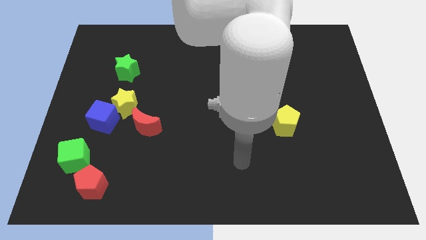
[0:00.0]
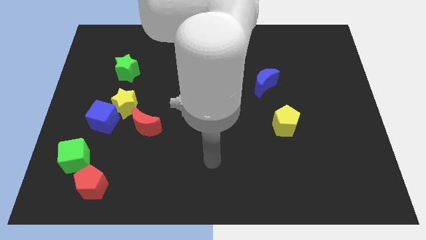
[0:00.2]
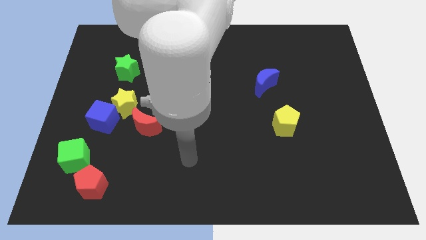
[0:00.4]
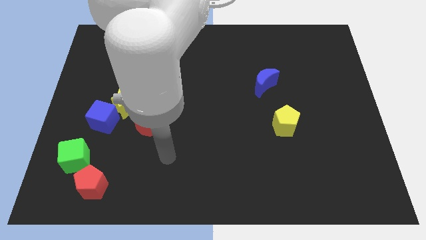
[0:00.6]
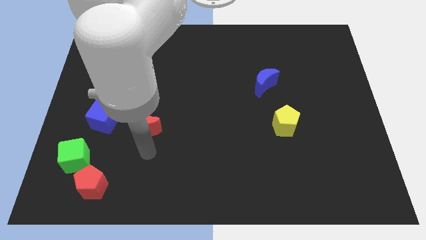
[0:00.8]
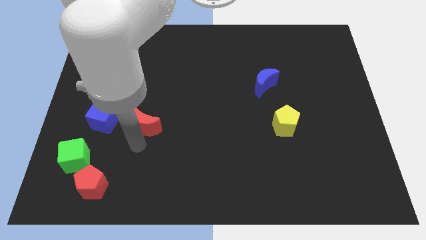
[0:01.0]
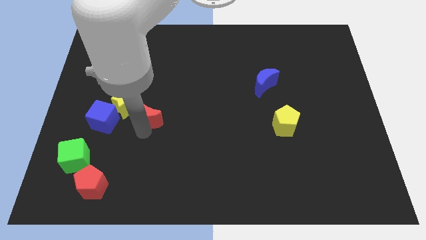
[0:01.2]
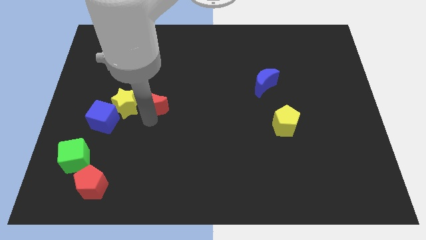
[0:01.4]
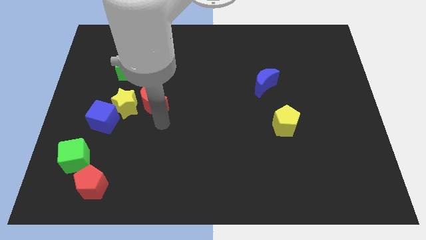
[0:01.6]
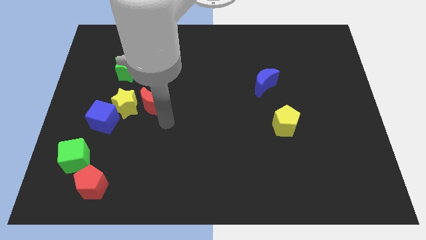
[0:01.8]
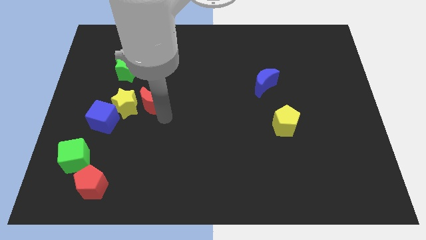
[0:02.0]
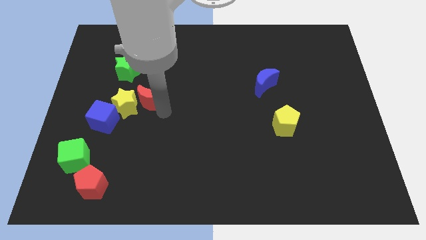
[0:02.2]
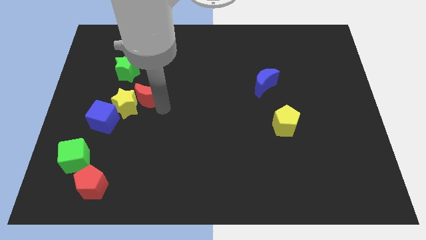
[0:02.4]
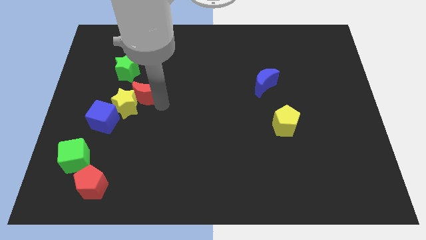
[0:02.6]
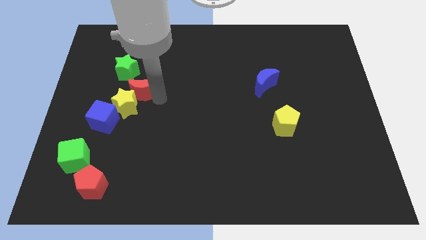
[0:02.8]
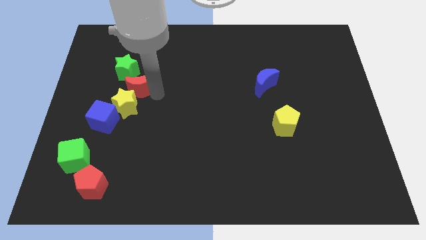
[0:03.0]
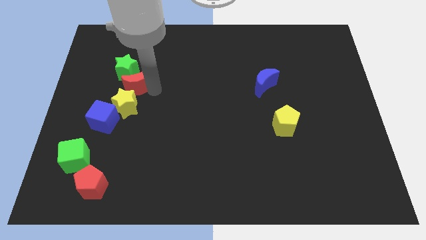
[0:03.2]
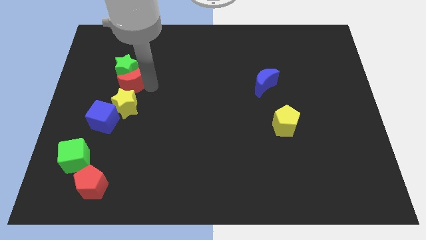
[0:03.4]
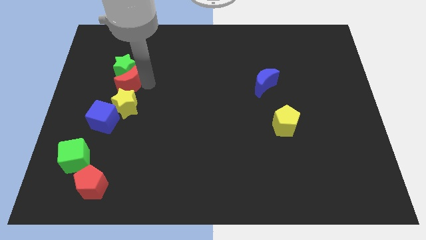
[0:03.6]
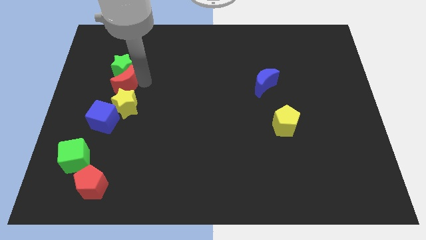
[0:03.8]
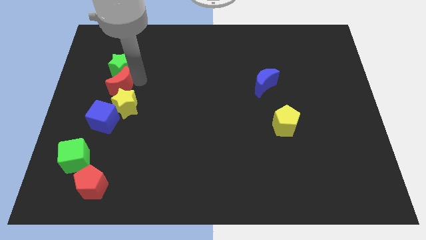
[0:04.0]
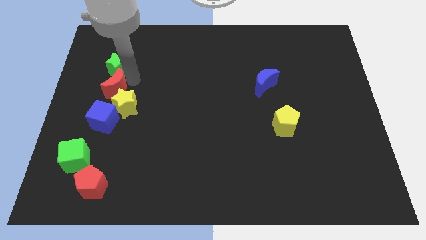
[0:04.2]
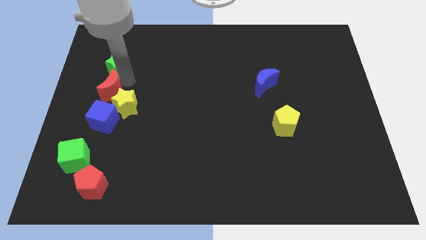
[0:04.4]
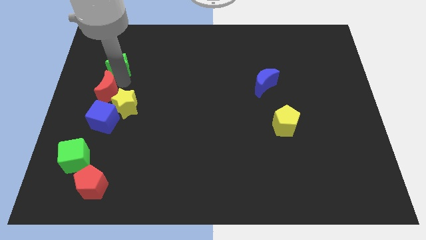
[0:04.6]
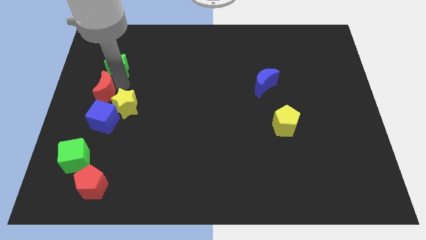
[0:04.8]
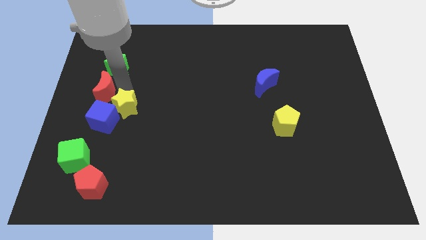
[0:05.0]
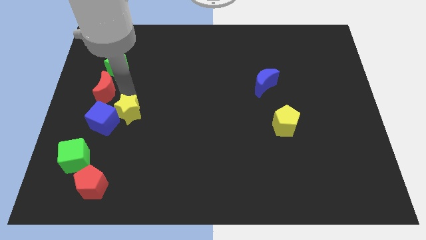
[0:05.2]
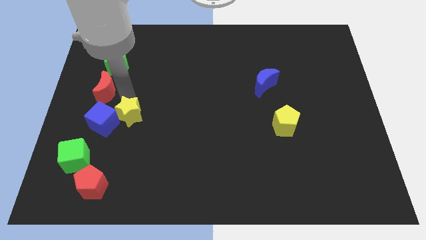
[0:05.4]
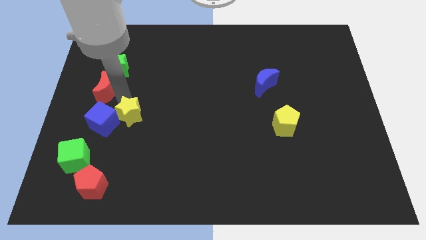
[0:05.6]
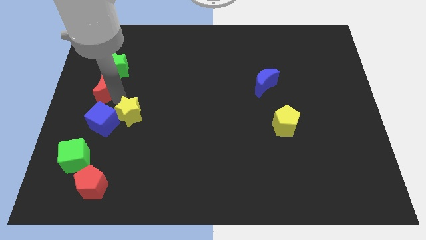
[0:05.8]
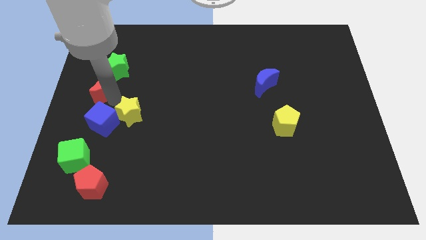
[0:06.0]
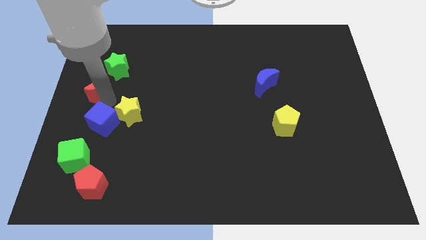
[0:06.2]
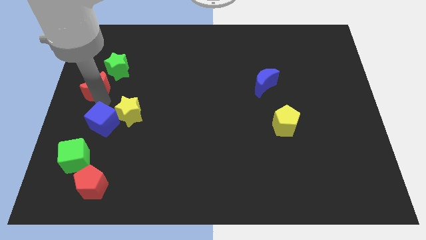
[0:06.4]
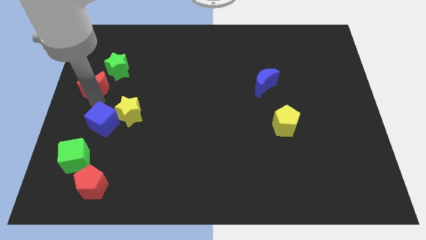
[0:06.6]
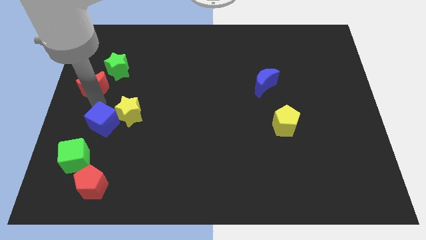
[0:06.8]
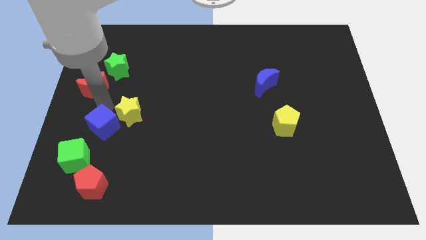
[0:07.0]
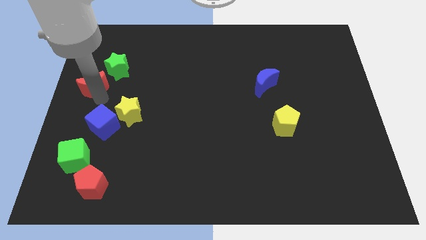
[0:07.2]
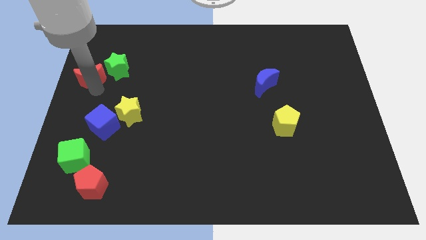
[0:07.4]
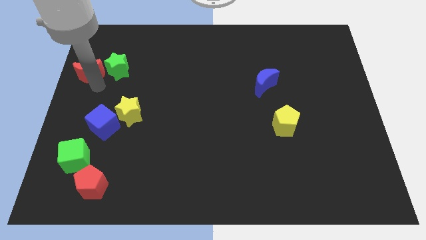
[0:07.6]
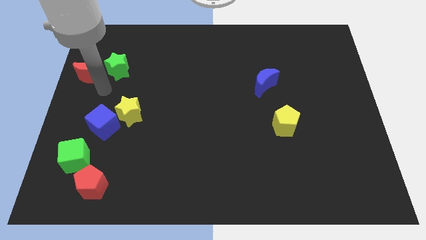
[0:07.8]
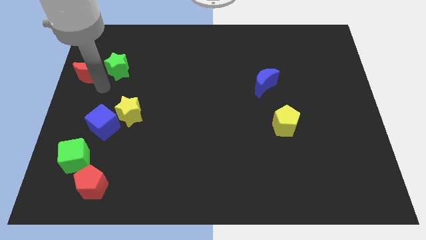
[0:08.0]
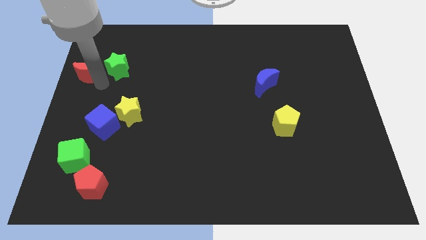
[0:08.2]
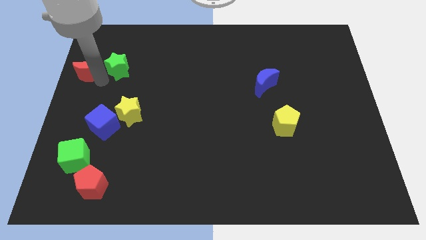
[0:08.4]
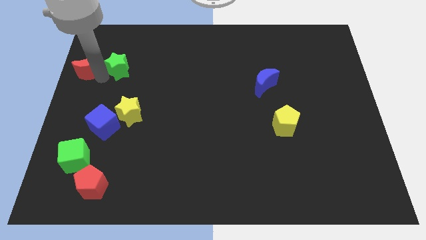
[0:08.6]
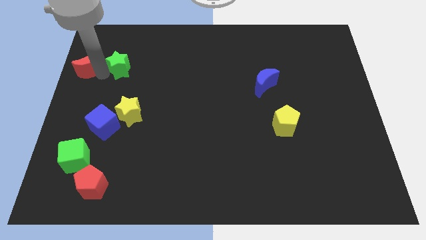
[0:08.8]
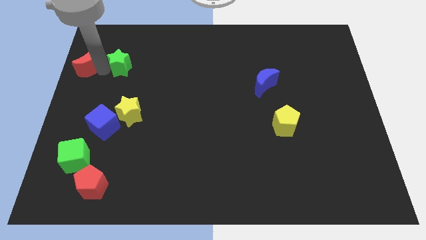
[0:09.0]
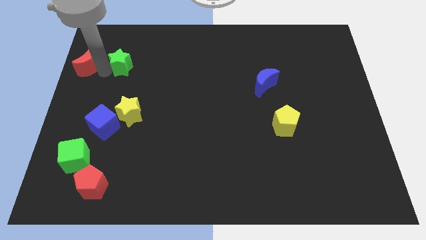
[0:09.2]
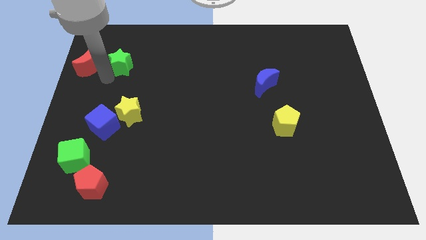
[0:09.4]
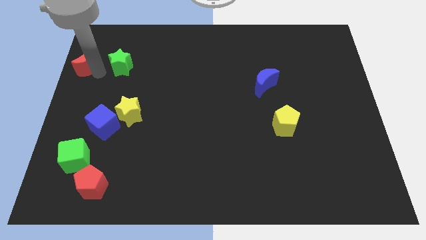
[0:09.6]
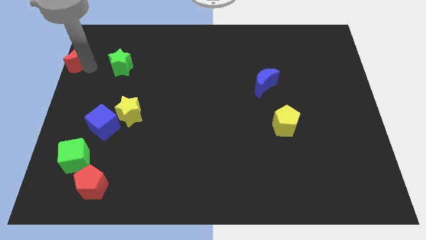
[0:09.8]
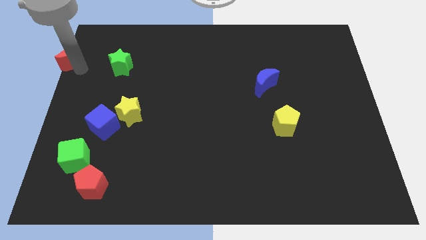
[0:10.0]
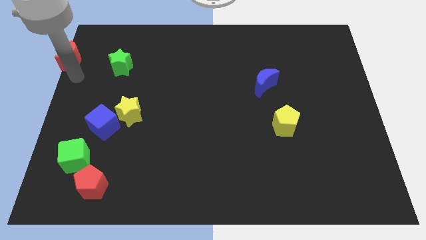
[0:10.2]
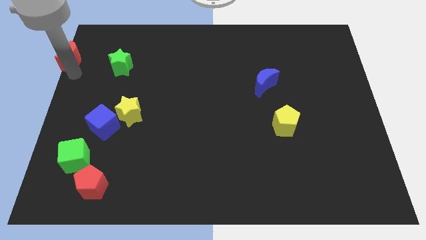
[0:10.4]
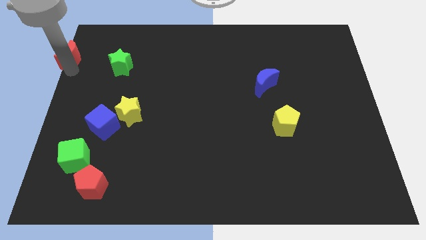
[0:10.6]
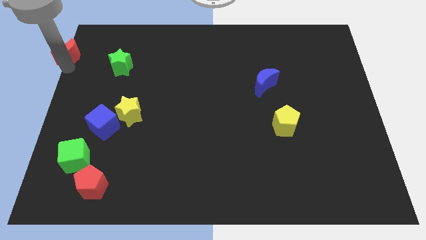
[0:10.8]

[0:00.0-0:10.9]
push the red moon to the top left

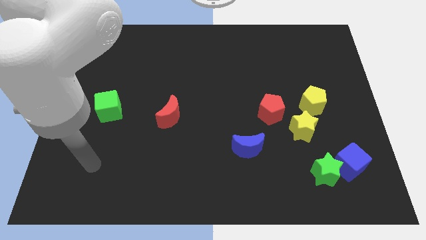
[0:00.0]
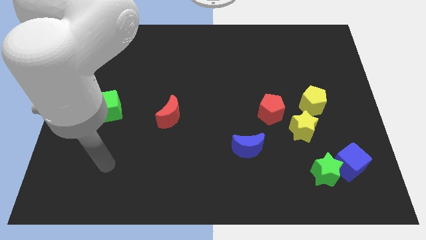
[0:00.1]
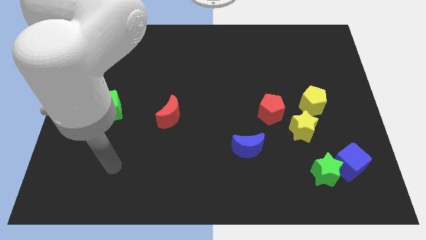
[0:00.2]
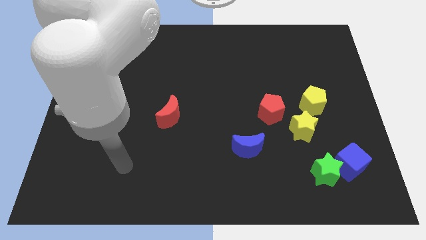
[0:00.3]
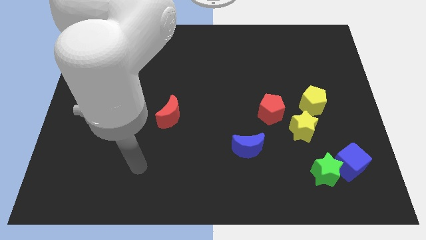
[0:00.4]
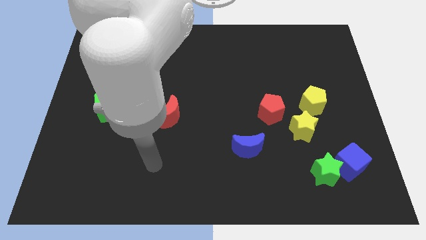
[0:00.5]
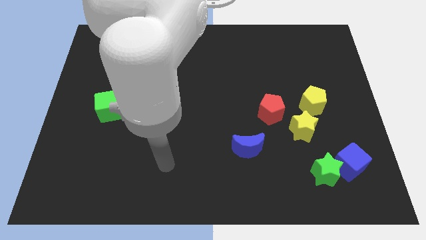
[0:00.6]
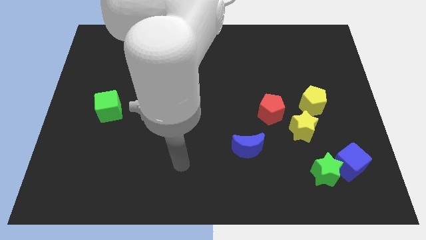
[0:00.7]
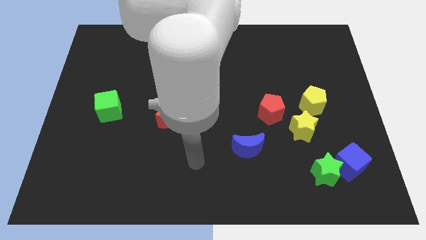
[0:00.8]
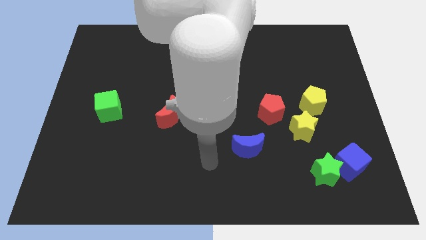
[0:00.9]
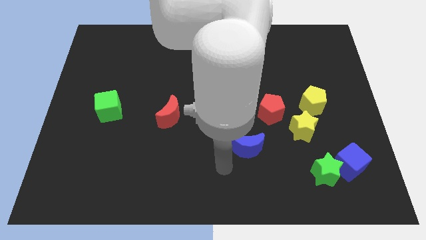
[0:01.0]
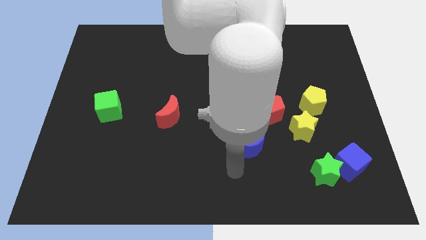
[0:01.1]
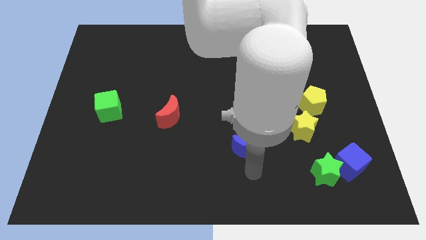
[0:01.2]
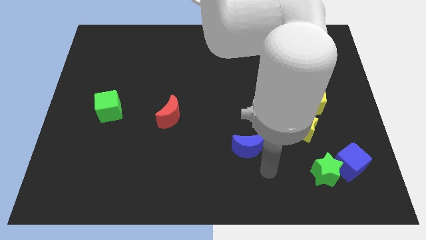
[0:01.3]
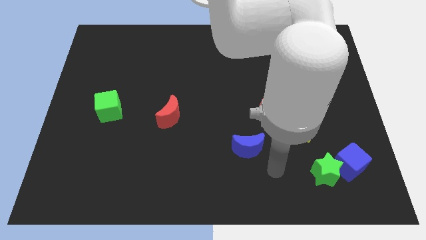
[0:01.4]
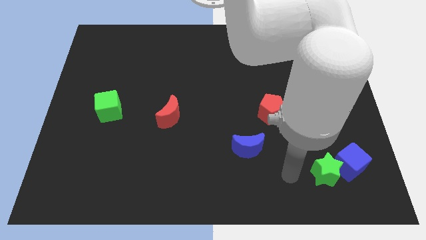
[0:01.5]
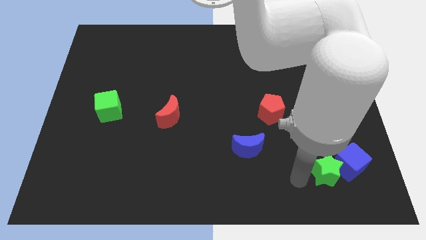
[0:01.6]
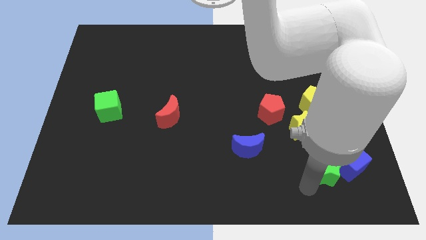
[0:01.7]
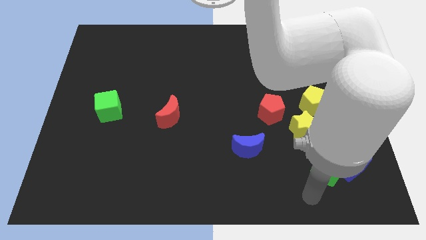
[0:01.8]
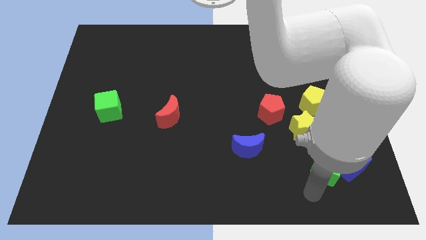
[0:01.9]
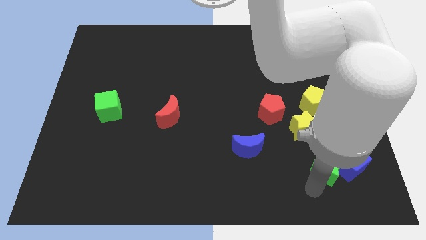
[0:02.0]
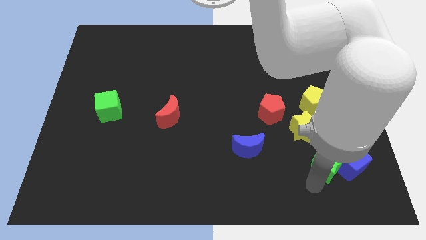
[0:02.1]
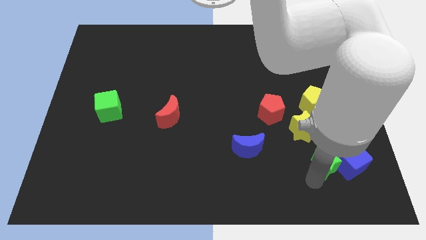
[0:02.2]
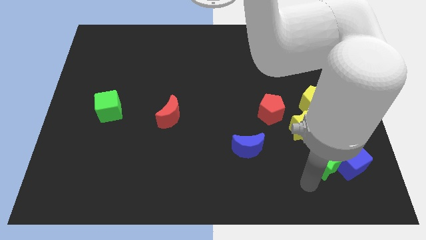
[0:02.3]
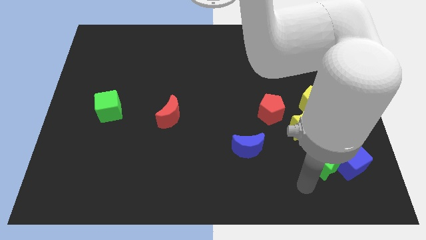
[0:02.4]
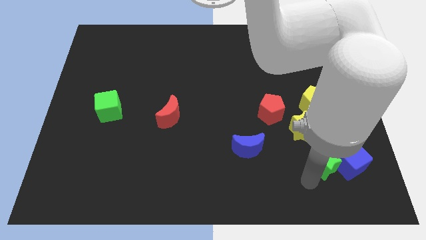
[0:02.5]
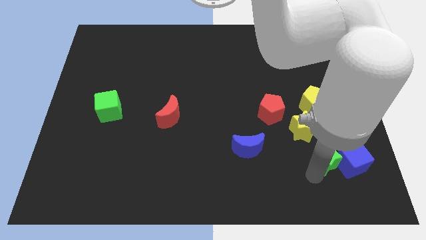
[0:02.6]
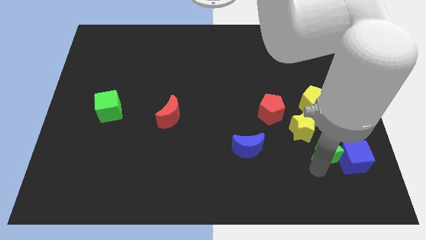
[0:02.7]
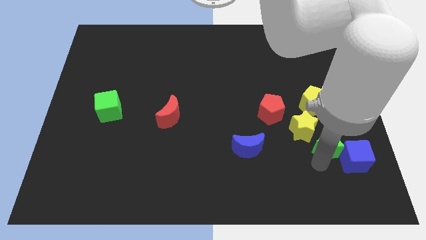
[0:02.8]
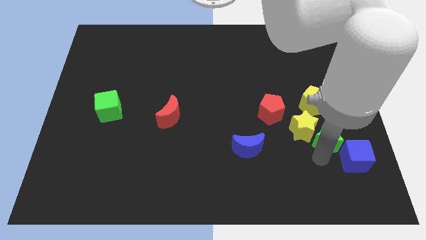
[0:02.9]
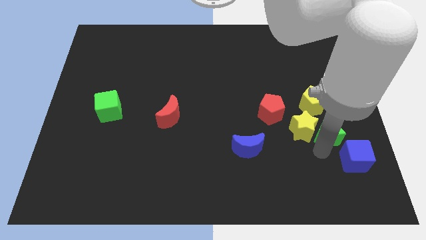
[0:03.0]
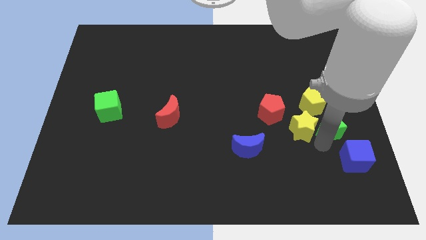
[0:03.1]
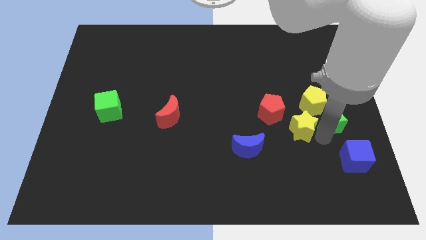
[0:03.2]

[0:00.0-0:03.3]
push the green star to the center right
